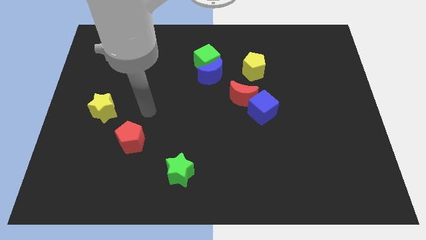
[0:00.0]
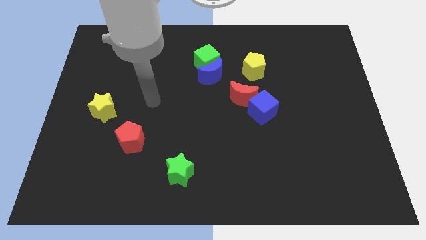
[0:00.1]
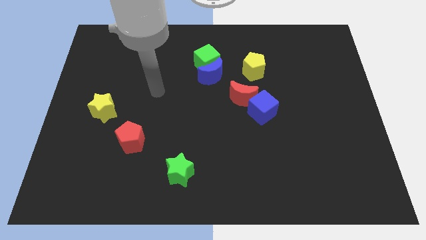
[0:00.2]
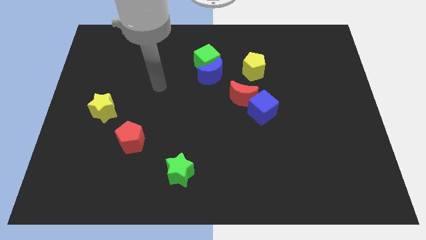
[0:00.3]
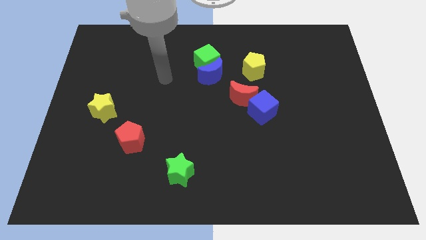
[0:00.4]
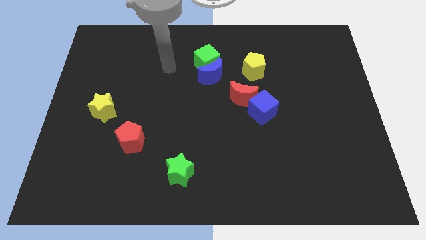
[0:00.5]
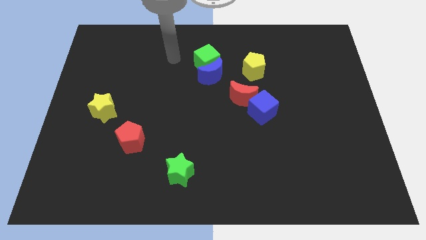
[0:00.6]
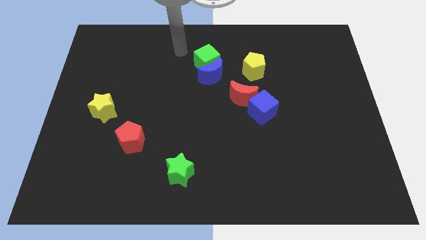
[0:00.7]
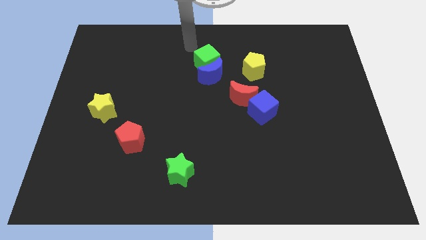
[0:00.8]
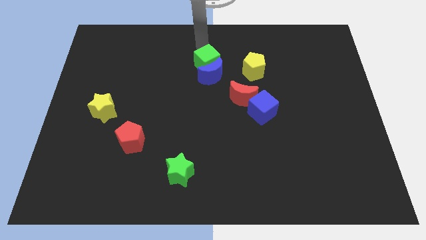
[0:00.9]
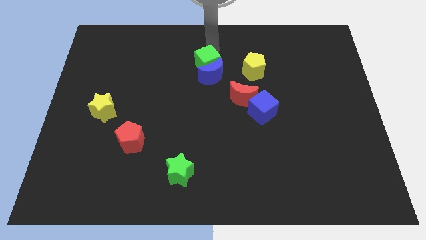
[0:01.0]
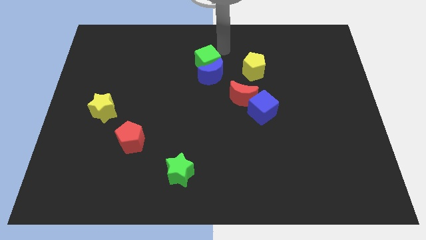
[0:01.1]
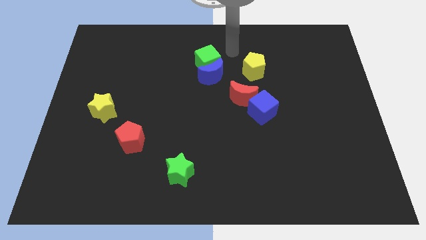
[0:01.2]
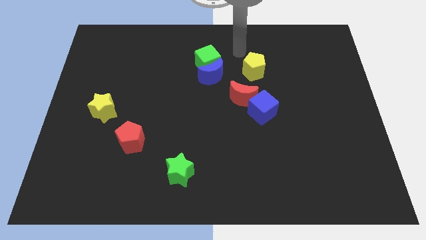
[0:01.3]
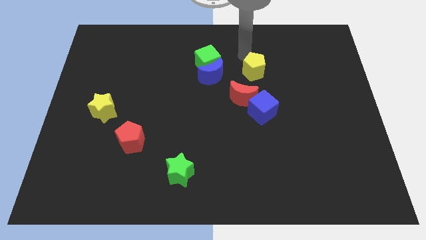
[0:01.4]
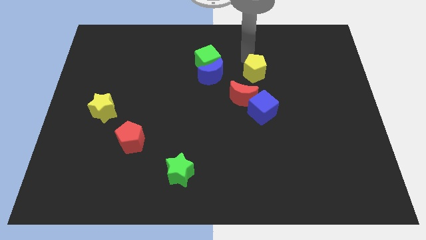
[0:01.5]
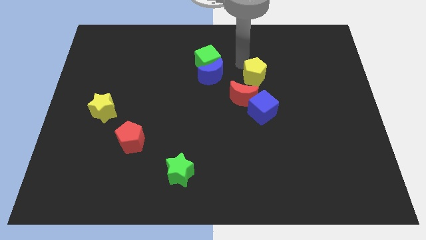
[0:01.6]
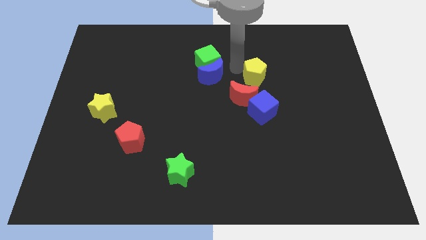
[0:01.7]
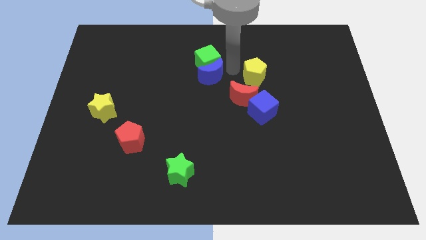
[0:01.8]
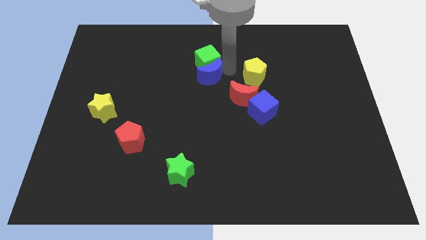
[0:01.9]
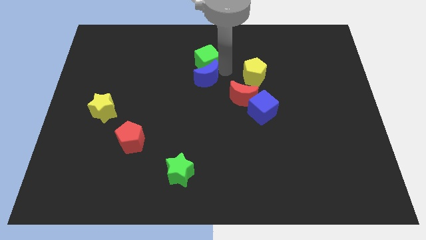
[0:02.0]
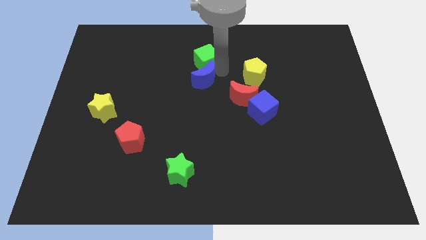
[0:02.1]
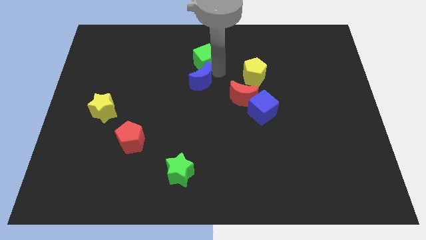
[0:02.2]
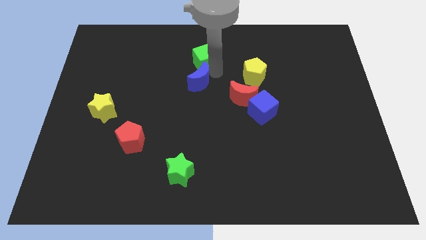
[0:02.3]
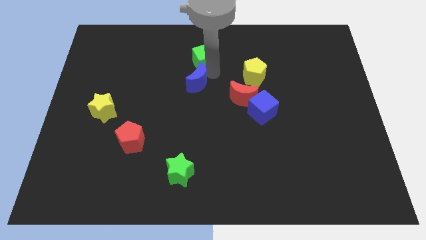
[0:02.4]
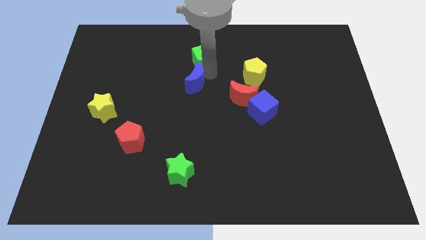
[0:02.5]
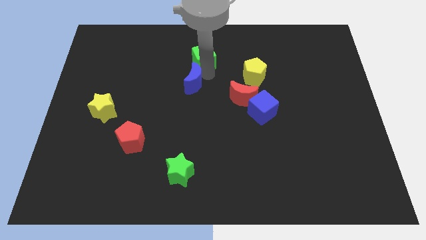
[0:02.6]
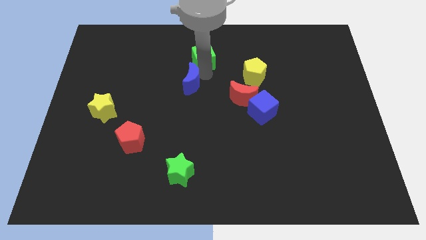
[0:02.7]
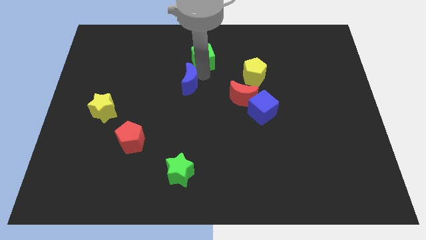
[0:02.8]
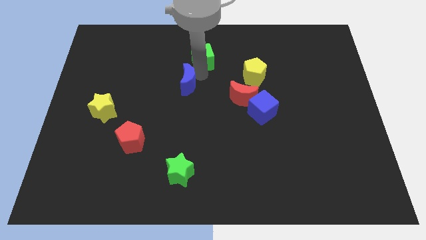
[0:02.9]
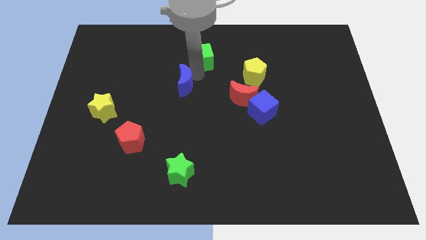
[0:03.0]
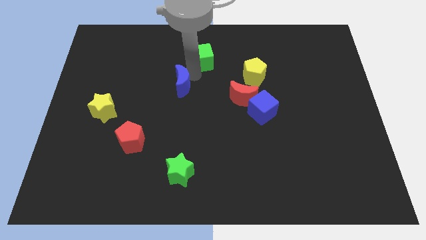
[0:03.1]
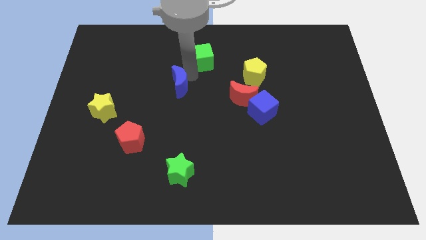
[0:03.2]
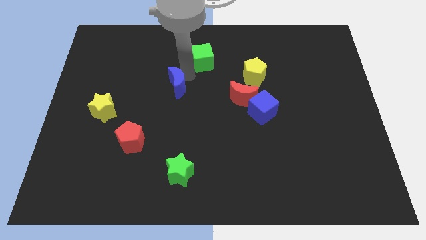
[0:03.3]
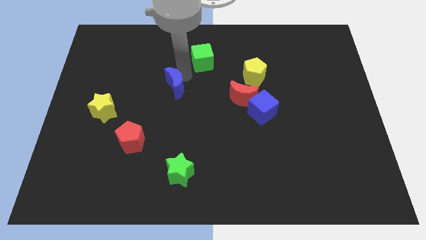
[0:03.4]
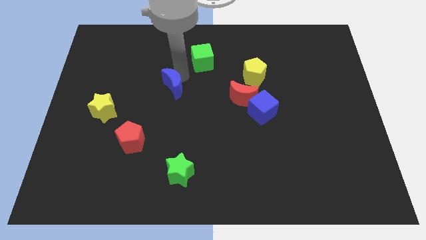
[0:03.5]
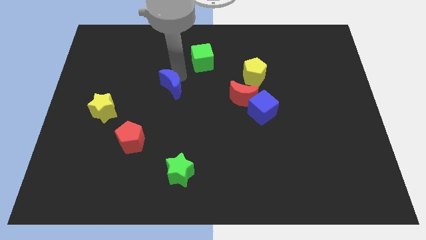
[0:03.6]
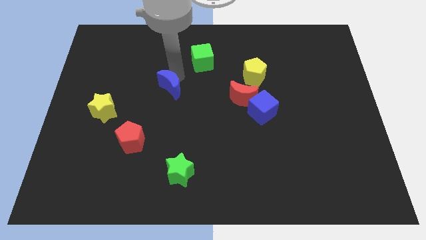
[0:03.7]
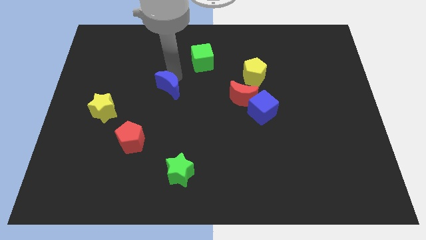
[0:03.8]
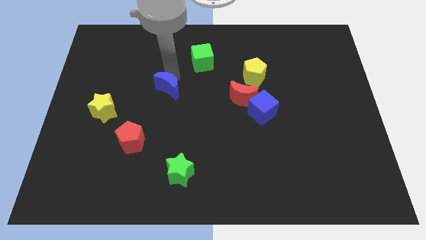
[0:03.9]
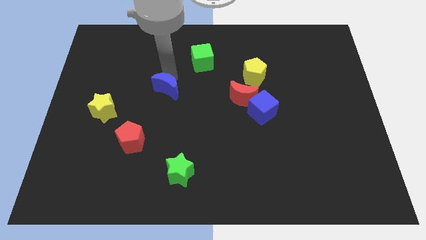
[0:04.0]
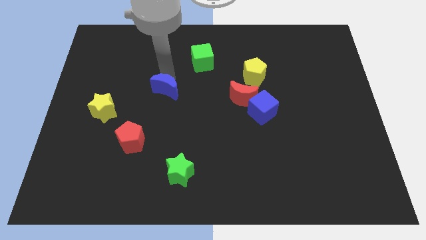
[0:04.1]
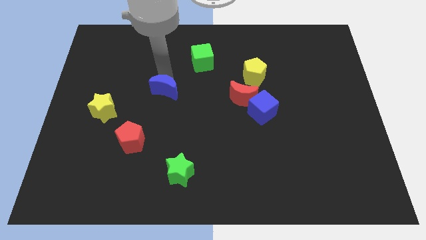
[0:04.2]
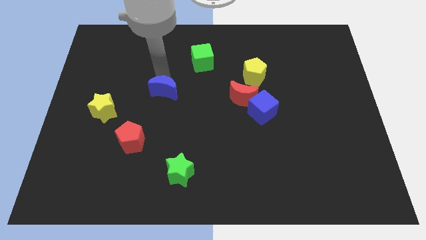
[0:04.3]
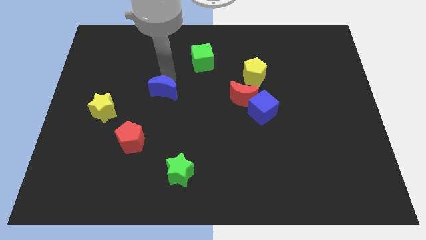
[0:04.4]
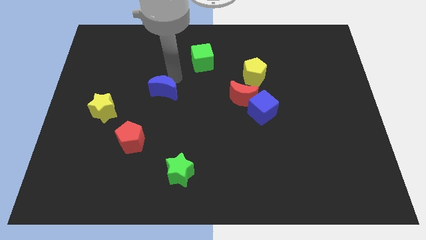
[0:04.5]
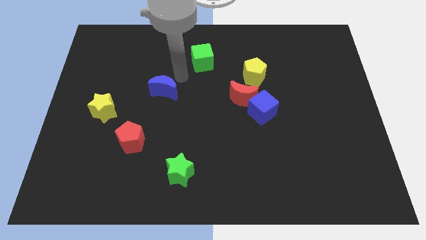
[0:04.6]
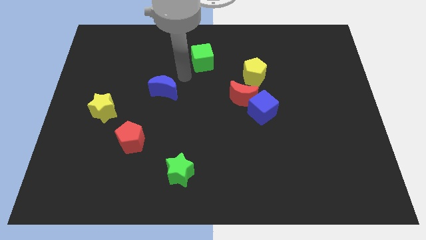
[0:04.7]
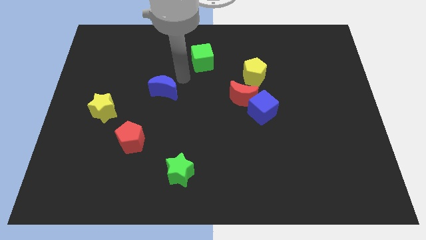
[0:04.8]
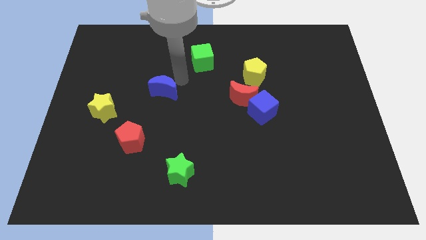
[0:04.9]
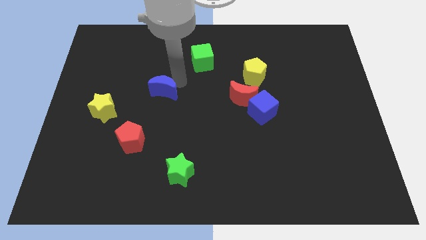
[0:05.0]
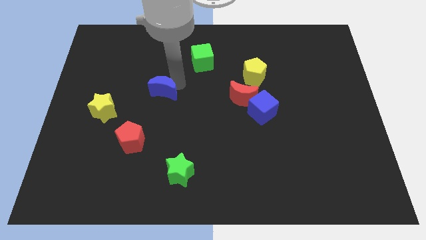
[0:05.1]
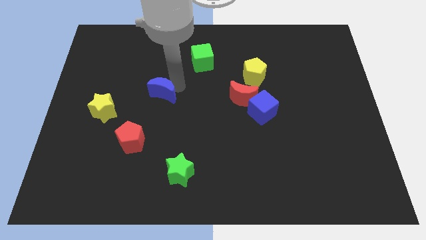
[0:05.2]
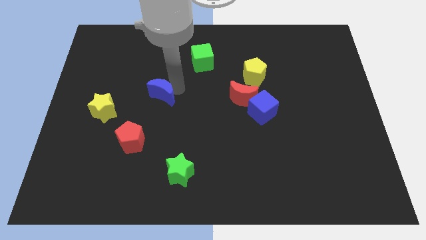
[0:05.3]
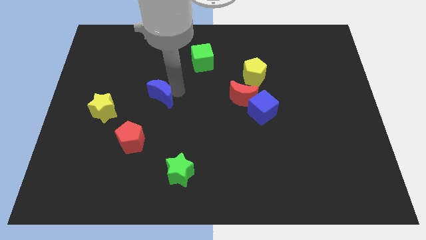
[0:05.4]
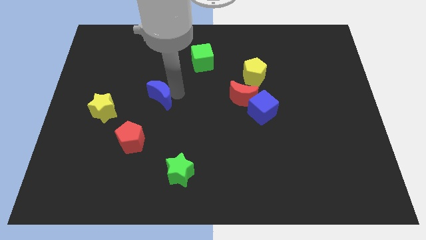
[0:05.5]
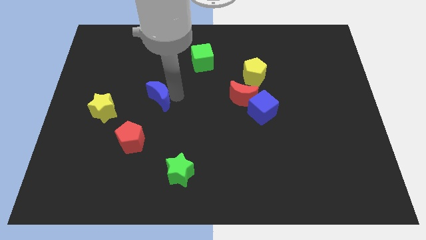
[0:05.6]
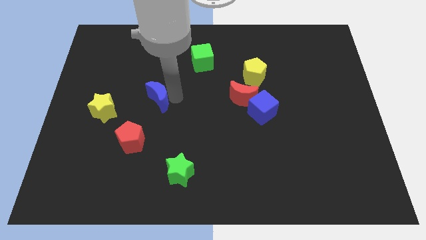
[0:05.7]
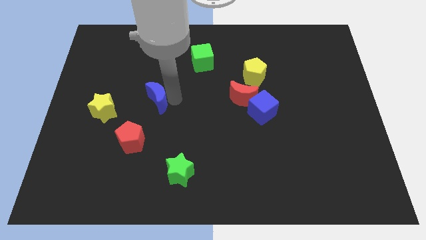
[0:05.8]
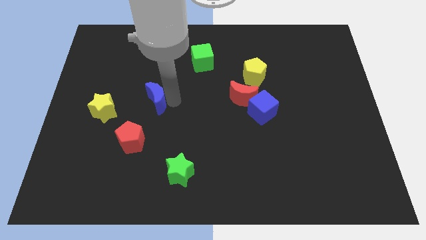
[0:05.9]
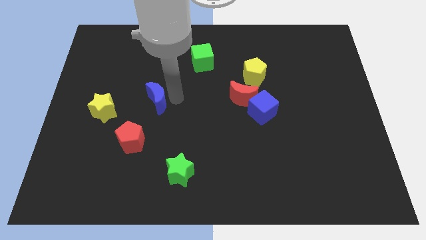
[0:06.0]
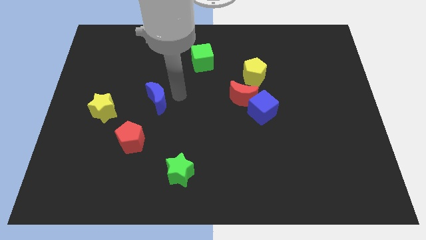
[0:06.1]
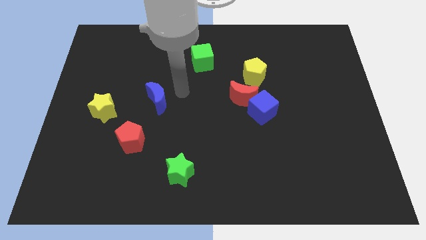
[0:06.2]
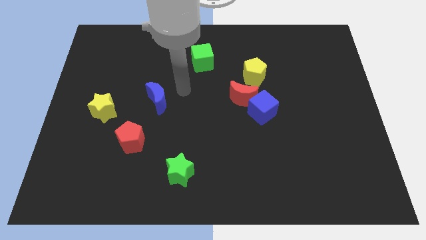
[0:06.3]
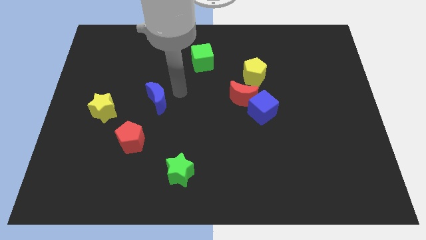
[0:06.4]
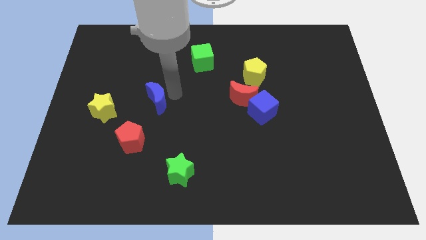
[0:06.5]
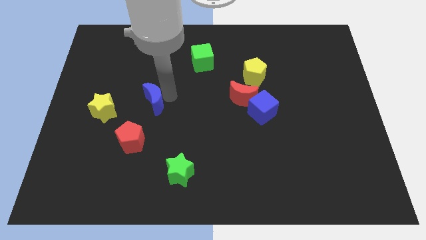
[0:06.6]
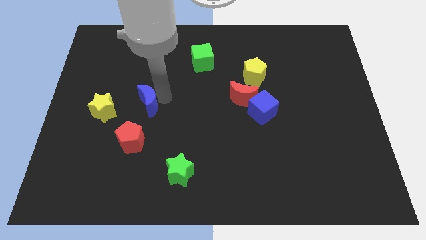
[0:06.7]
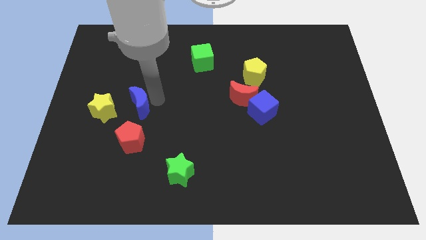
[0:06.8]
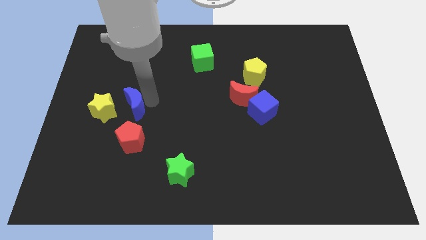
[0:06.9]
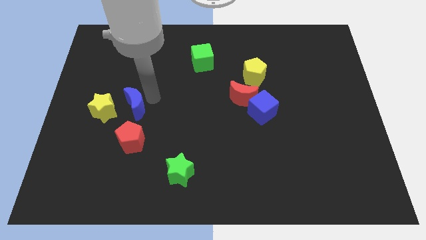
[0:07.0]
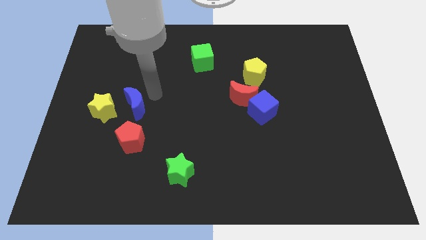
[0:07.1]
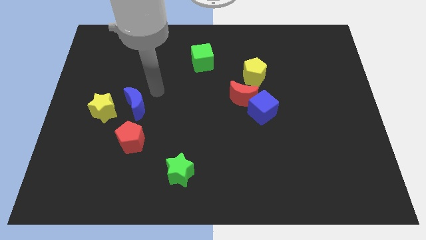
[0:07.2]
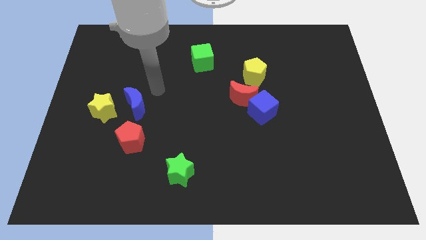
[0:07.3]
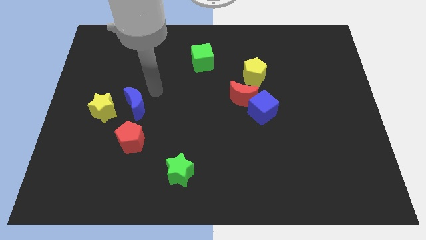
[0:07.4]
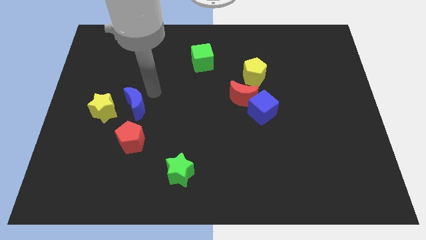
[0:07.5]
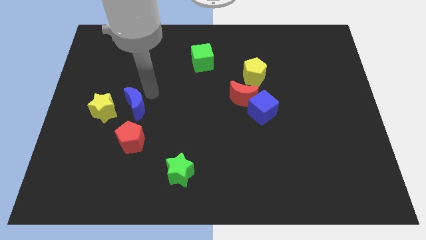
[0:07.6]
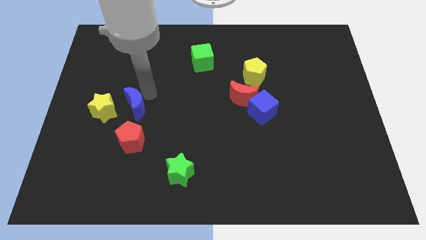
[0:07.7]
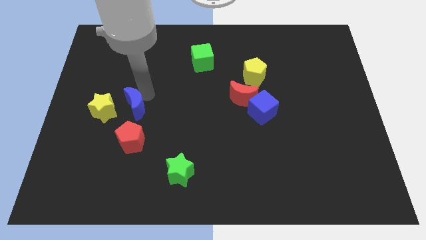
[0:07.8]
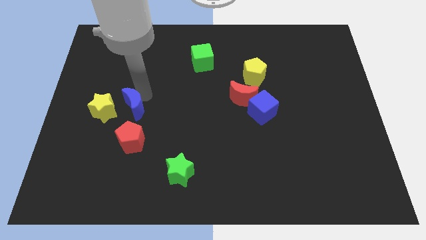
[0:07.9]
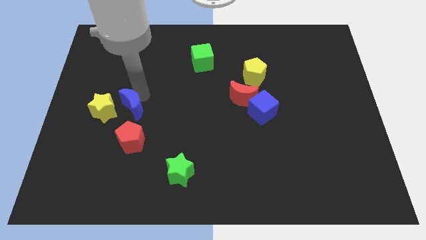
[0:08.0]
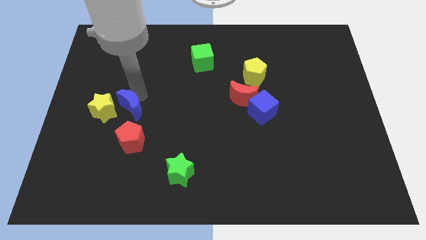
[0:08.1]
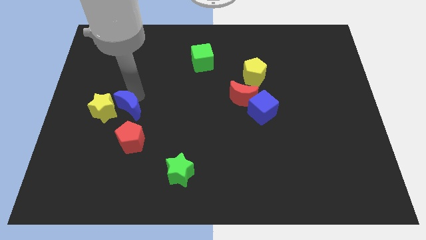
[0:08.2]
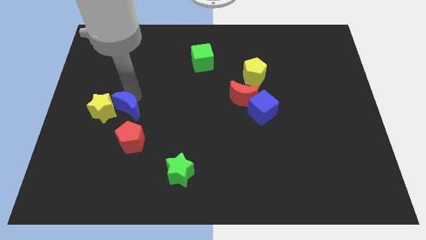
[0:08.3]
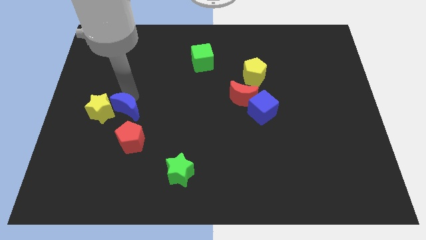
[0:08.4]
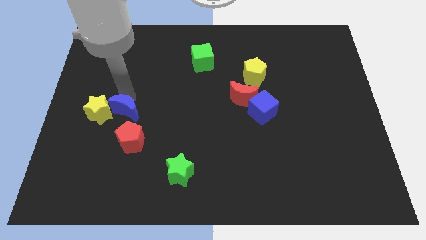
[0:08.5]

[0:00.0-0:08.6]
push the blue moon down and left diagonally
